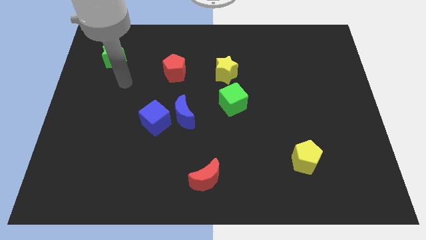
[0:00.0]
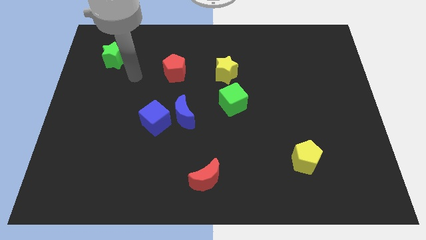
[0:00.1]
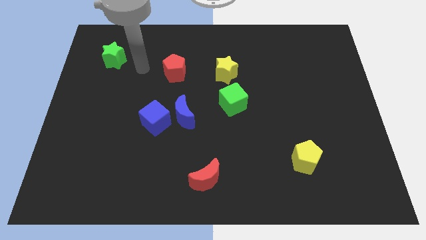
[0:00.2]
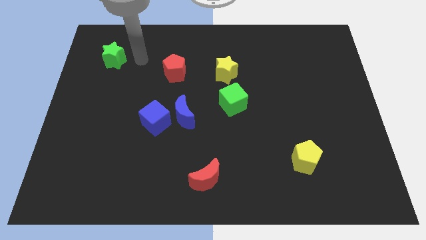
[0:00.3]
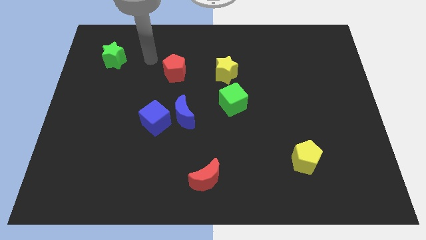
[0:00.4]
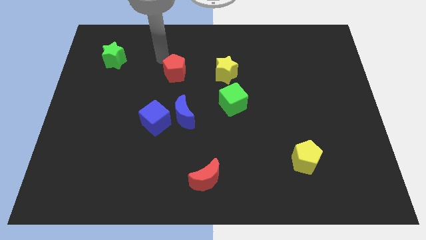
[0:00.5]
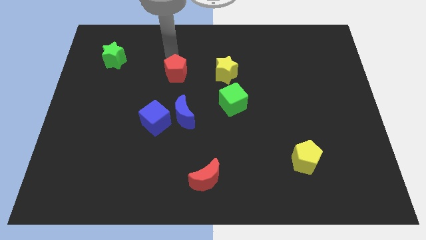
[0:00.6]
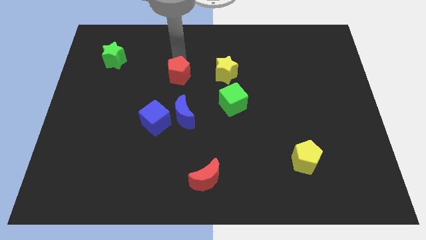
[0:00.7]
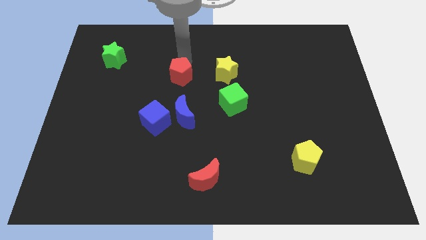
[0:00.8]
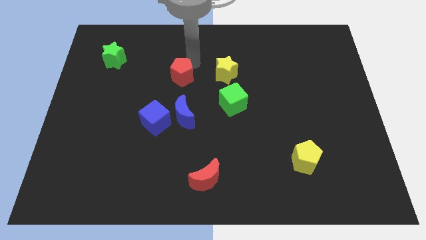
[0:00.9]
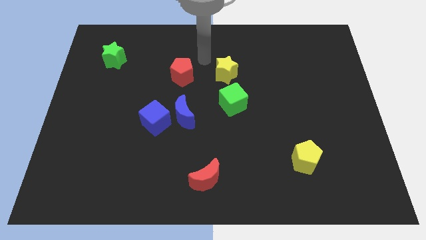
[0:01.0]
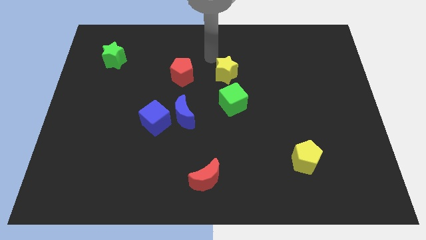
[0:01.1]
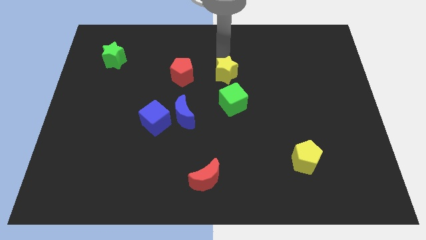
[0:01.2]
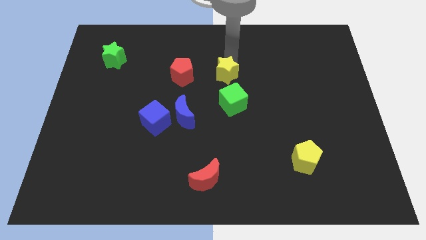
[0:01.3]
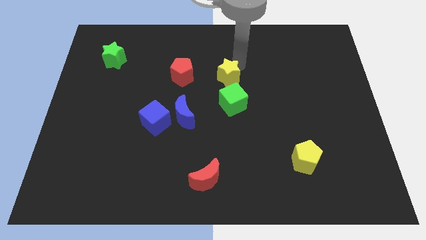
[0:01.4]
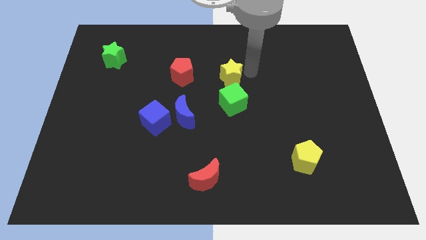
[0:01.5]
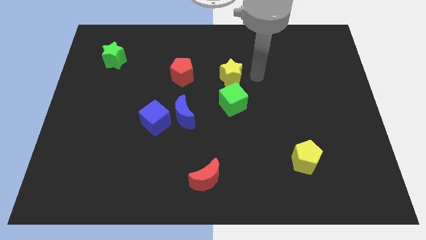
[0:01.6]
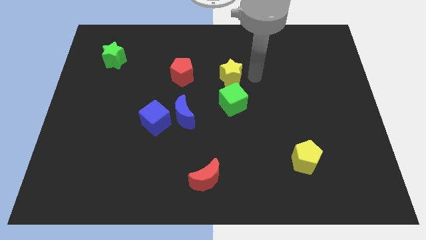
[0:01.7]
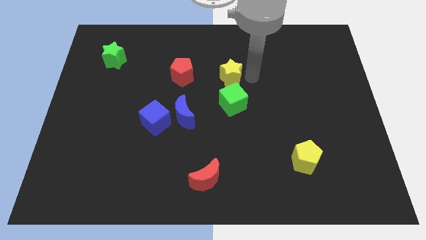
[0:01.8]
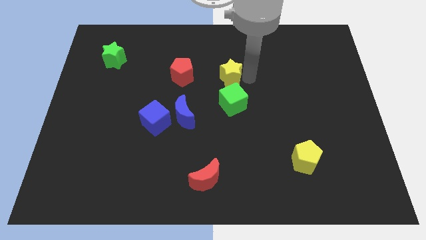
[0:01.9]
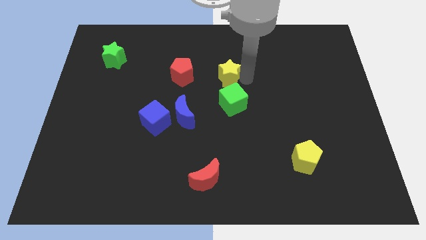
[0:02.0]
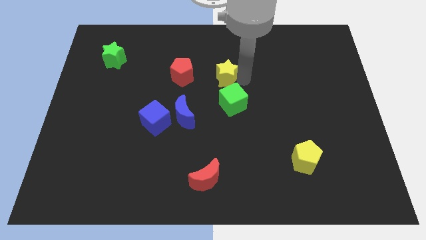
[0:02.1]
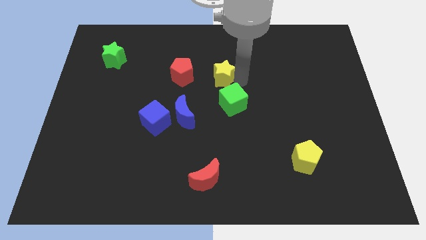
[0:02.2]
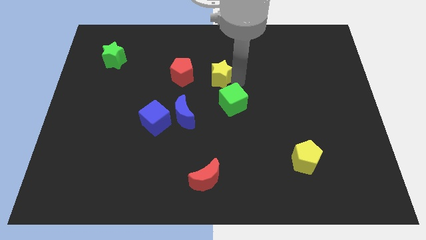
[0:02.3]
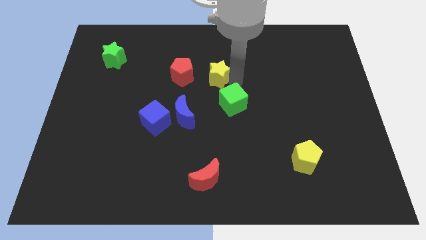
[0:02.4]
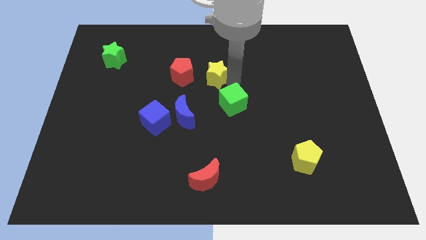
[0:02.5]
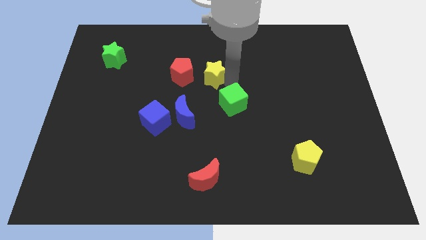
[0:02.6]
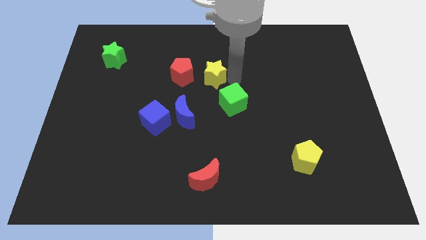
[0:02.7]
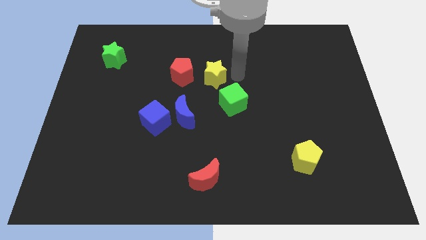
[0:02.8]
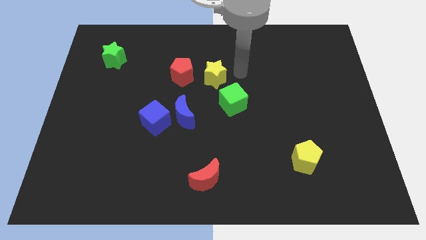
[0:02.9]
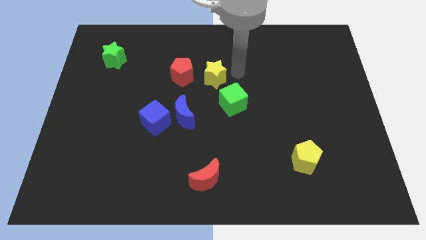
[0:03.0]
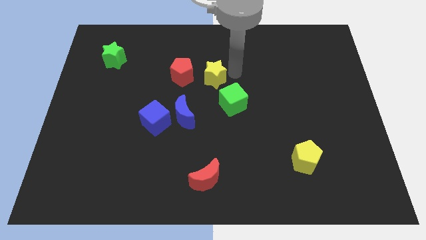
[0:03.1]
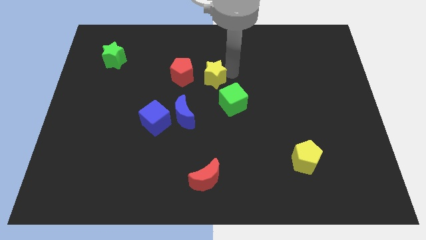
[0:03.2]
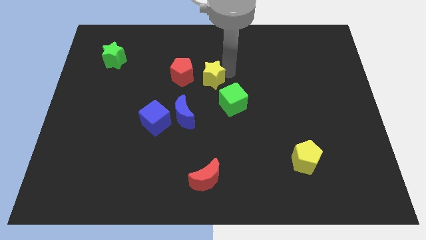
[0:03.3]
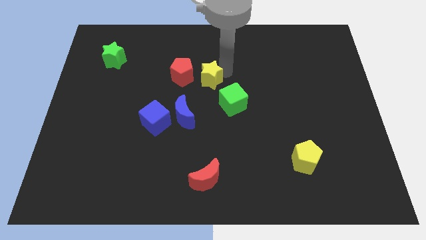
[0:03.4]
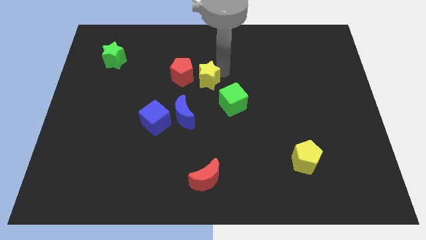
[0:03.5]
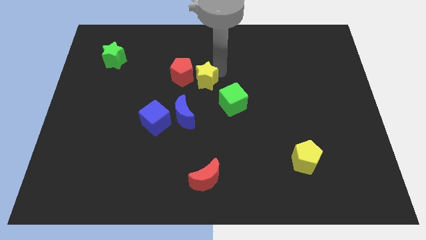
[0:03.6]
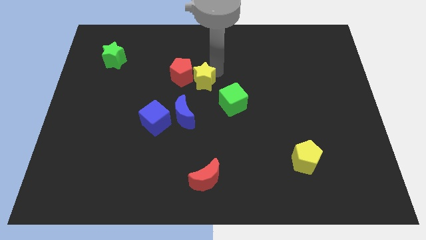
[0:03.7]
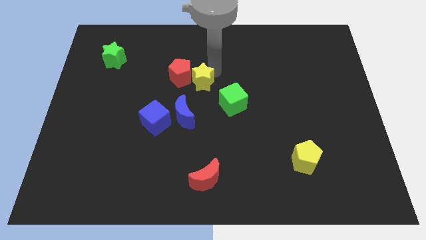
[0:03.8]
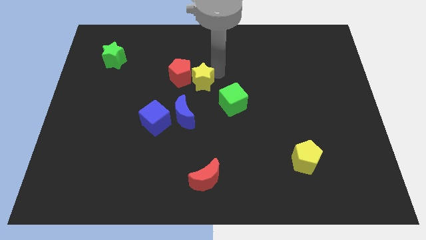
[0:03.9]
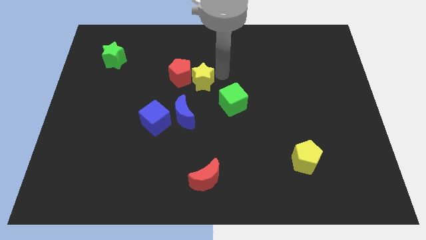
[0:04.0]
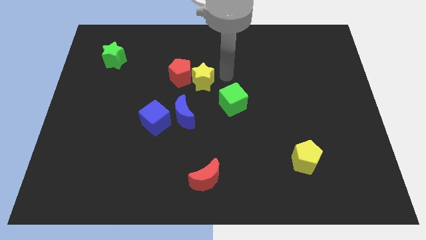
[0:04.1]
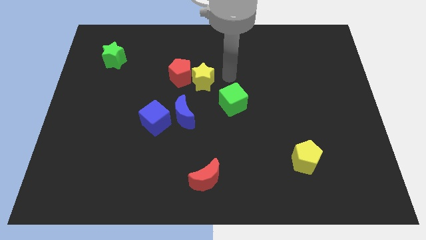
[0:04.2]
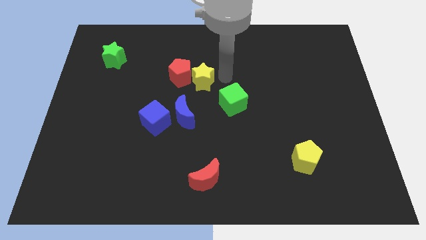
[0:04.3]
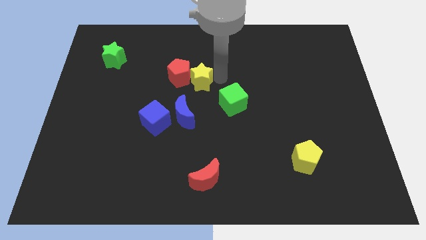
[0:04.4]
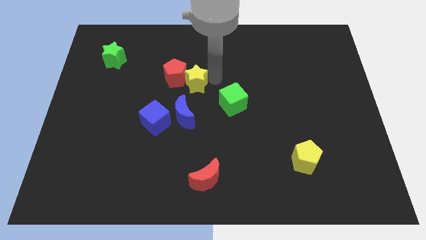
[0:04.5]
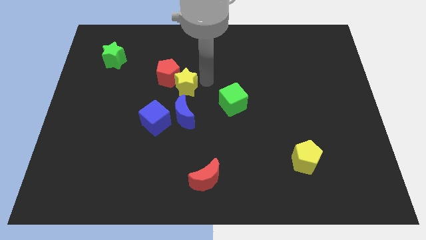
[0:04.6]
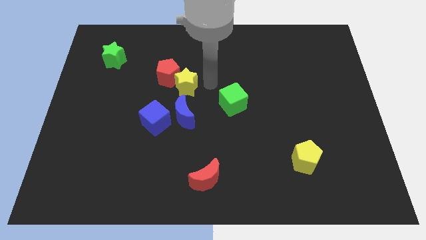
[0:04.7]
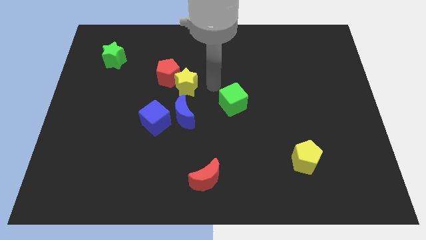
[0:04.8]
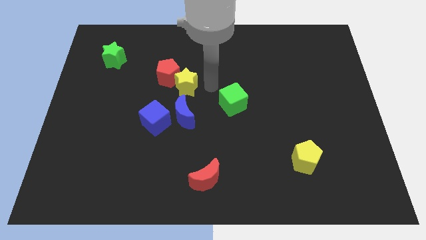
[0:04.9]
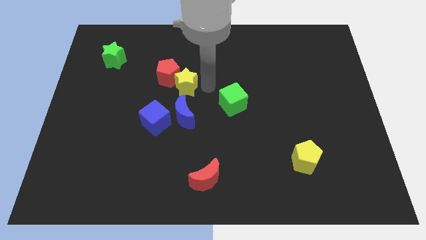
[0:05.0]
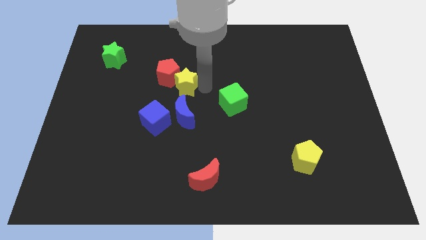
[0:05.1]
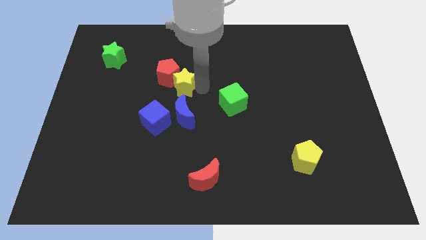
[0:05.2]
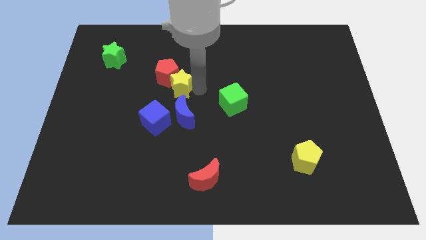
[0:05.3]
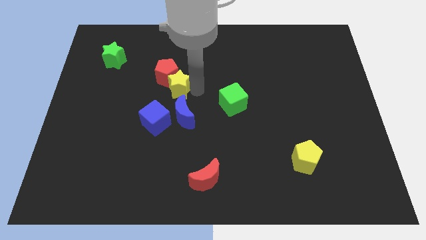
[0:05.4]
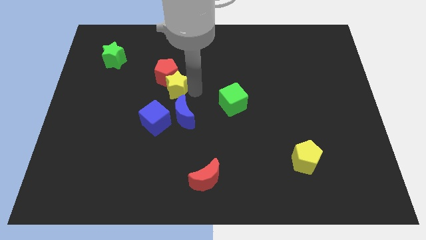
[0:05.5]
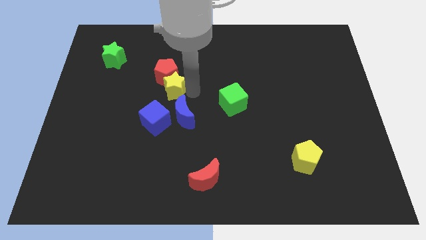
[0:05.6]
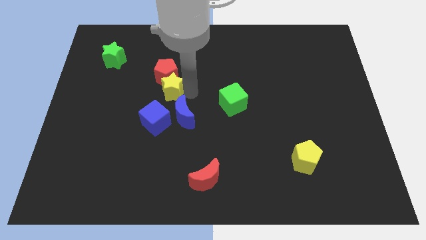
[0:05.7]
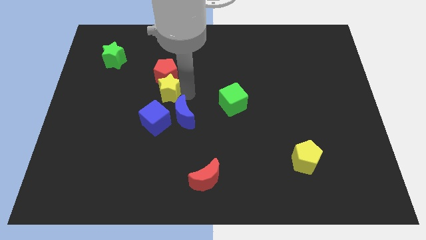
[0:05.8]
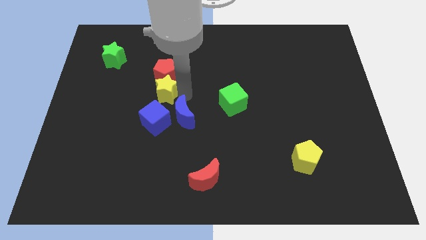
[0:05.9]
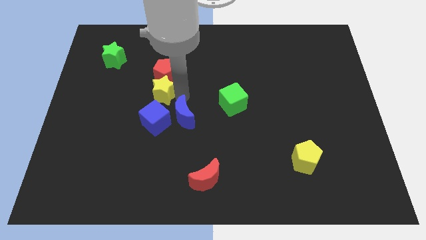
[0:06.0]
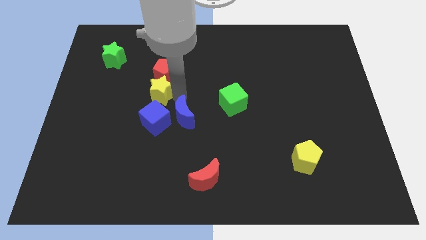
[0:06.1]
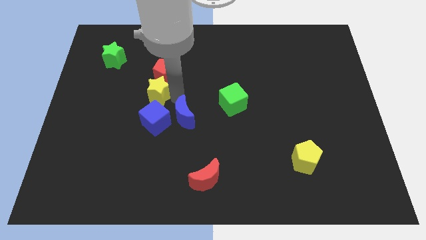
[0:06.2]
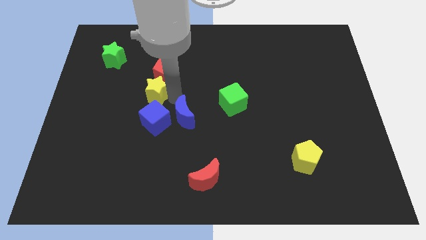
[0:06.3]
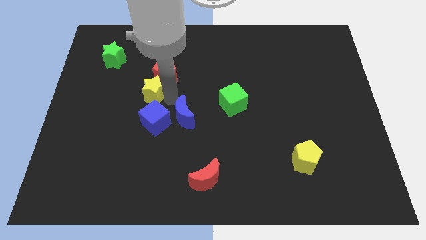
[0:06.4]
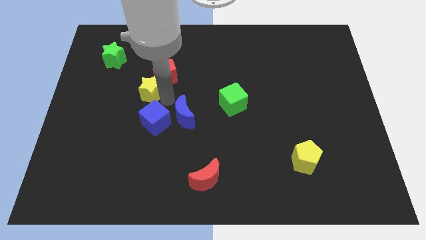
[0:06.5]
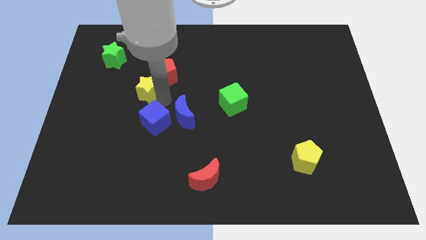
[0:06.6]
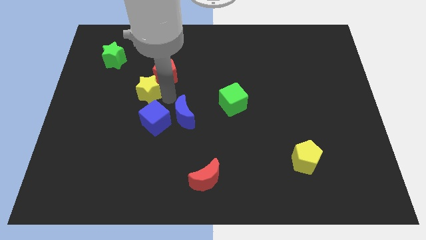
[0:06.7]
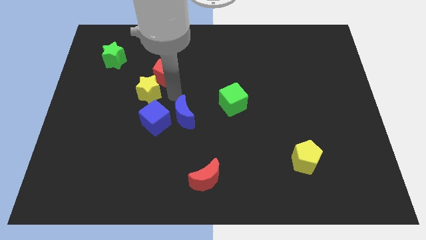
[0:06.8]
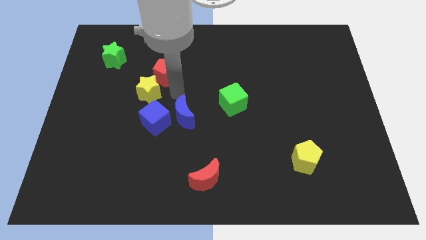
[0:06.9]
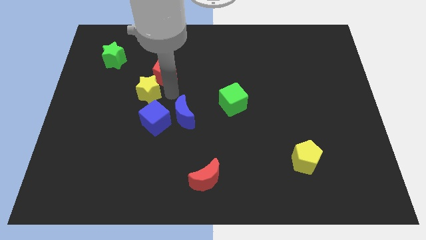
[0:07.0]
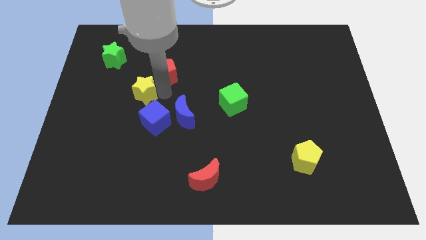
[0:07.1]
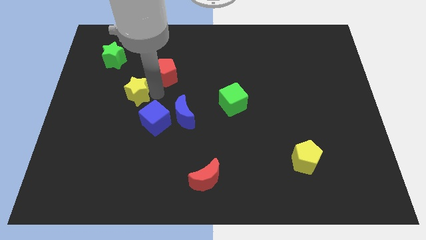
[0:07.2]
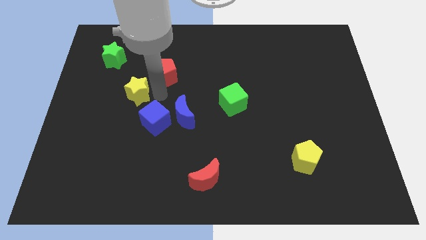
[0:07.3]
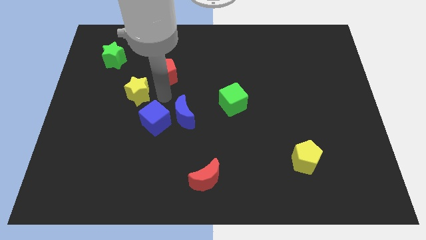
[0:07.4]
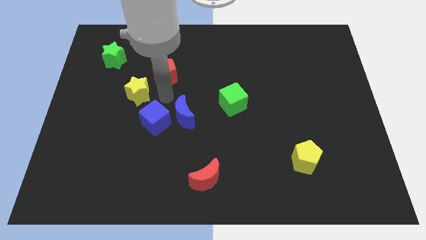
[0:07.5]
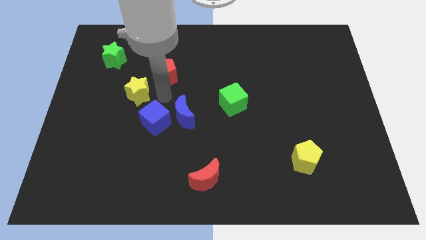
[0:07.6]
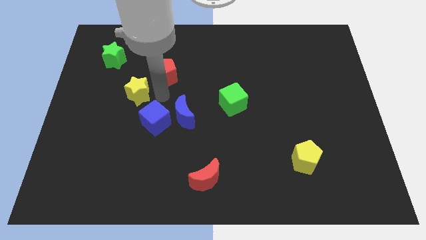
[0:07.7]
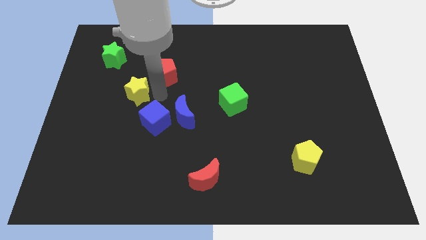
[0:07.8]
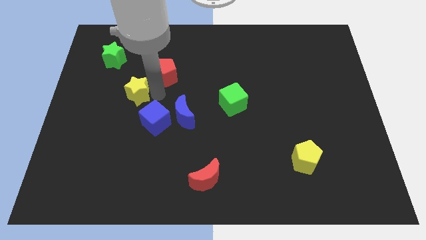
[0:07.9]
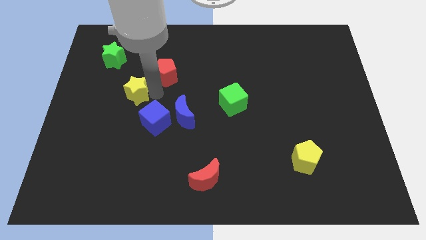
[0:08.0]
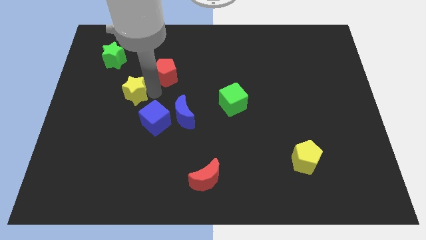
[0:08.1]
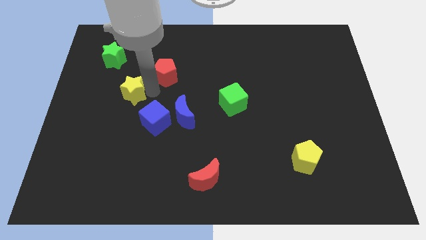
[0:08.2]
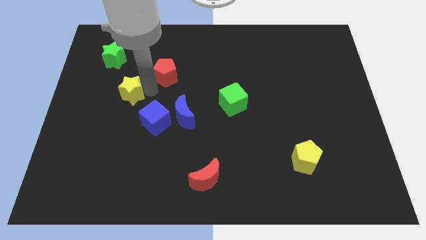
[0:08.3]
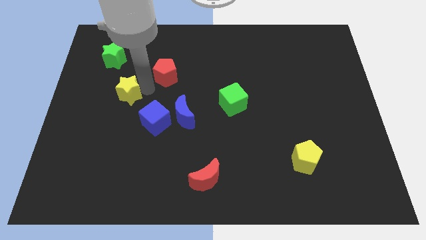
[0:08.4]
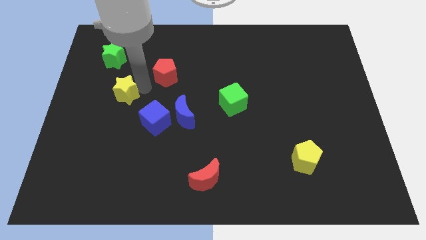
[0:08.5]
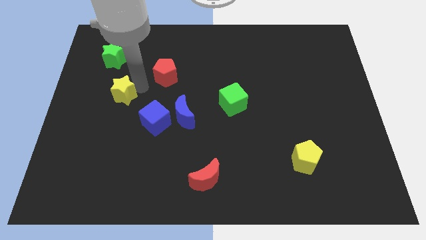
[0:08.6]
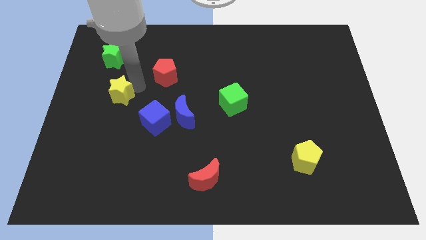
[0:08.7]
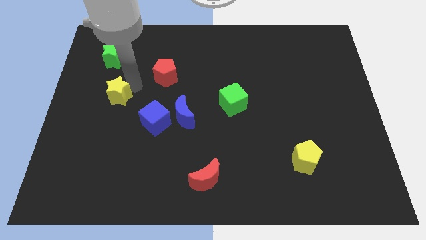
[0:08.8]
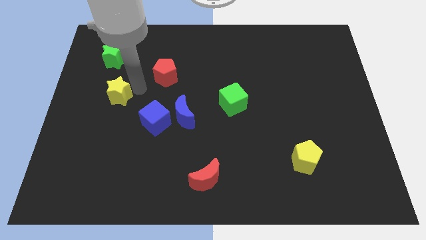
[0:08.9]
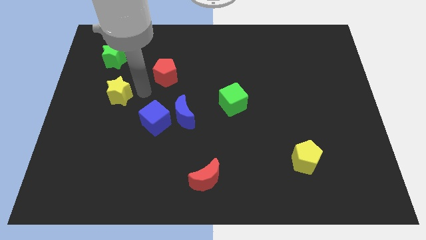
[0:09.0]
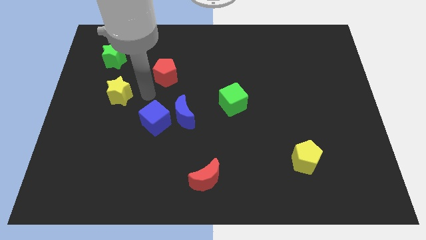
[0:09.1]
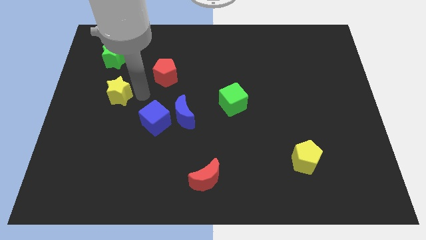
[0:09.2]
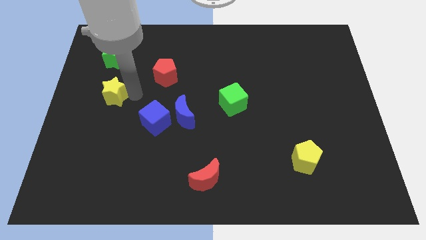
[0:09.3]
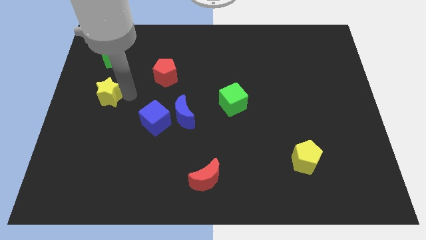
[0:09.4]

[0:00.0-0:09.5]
put the yellow star to the left side
